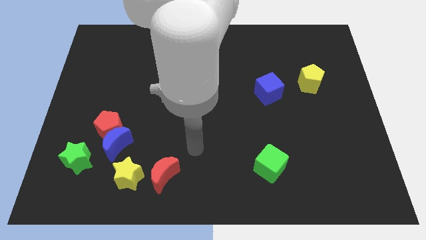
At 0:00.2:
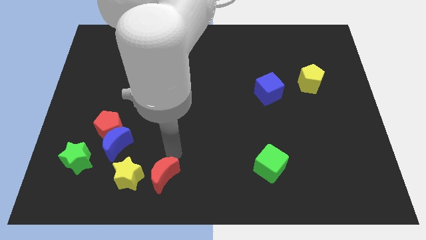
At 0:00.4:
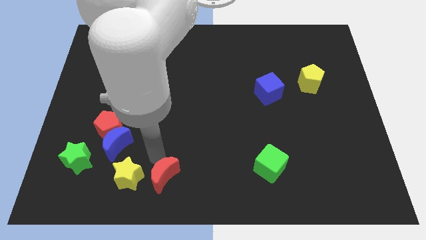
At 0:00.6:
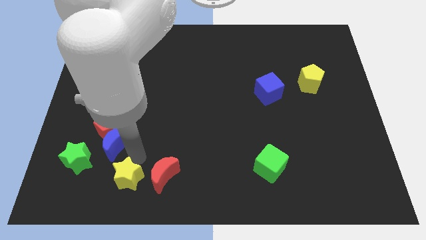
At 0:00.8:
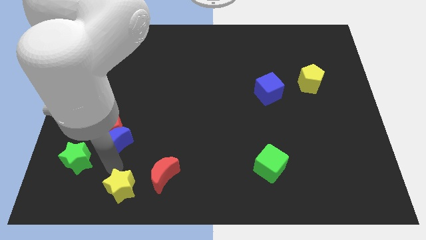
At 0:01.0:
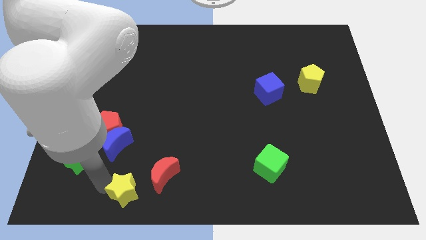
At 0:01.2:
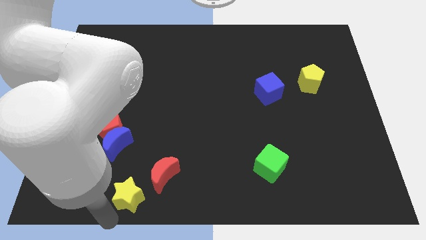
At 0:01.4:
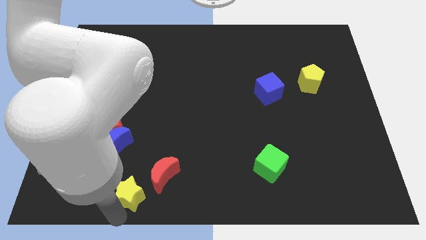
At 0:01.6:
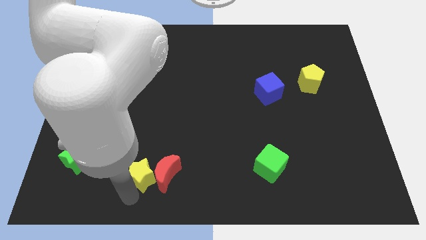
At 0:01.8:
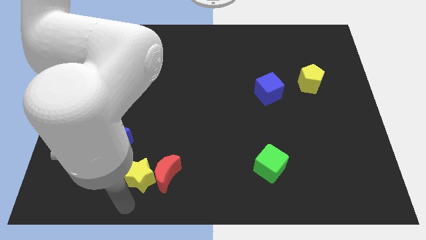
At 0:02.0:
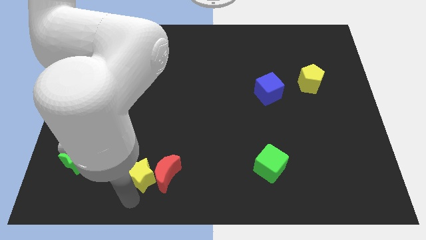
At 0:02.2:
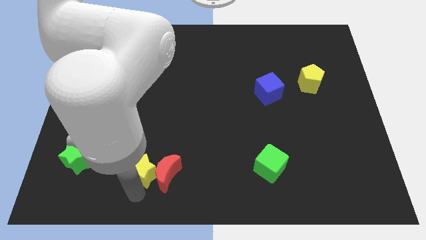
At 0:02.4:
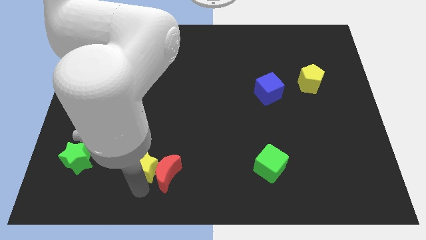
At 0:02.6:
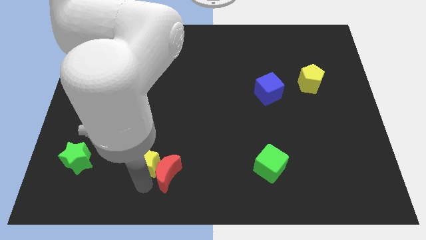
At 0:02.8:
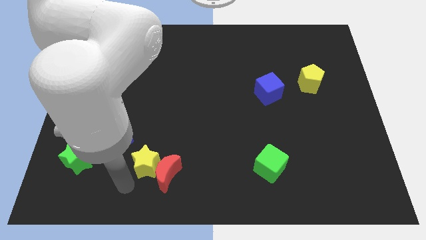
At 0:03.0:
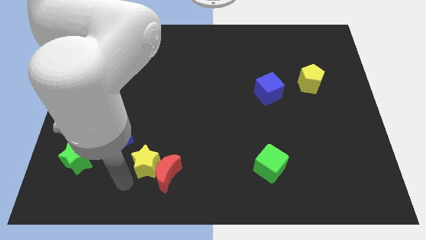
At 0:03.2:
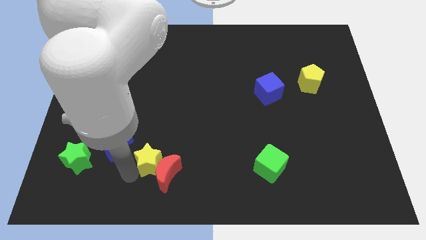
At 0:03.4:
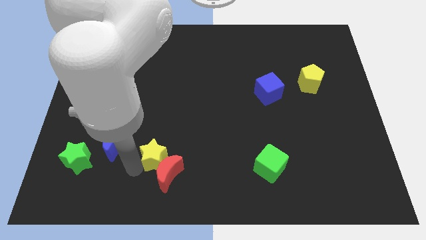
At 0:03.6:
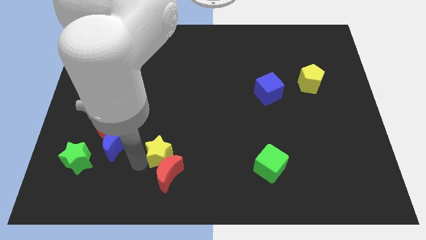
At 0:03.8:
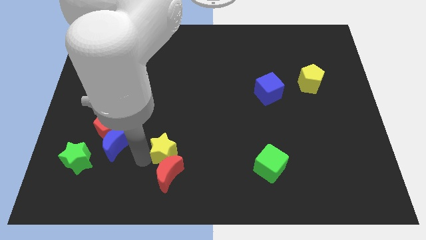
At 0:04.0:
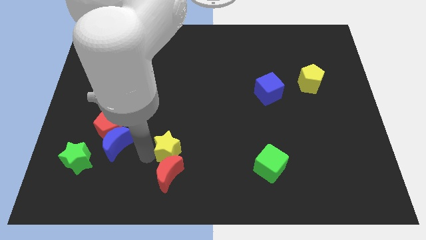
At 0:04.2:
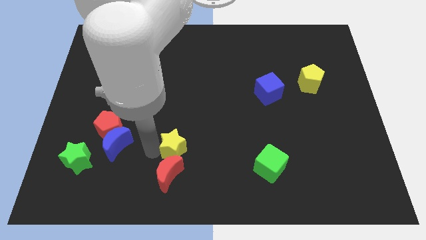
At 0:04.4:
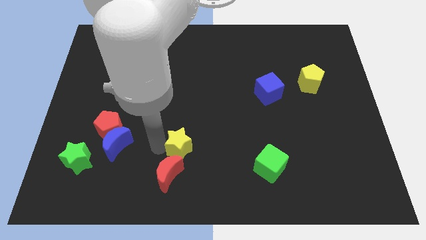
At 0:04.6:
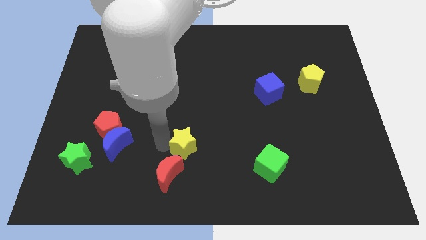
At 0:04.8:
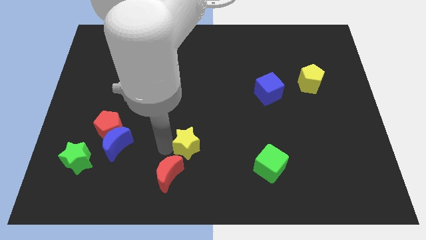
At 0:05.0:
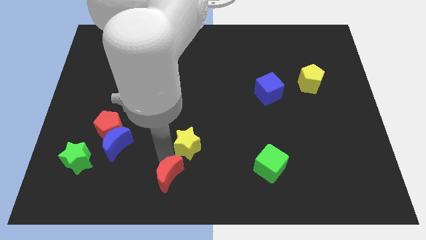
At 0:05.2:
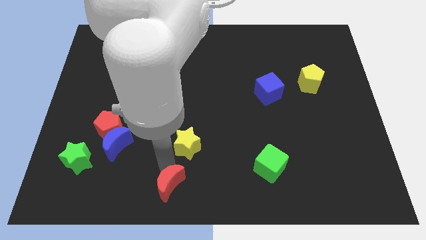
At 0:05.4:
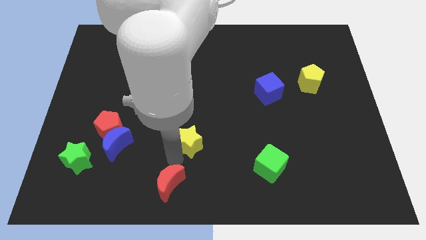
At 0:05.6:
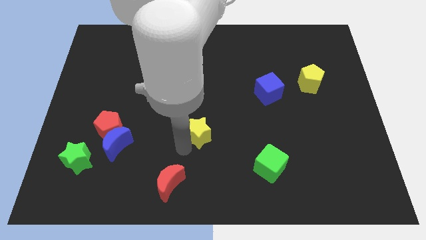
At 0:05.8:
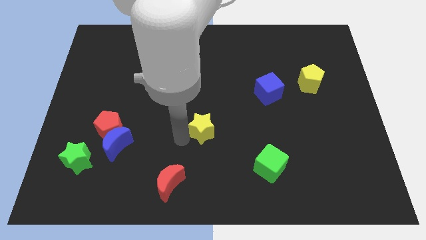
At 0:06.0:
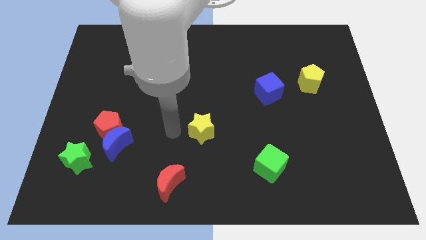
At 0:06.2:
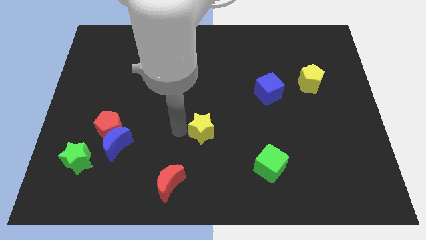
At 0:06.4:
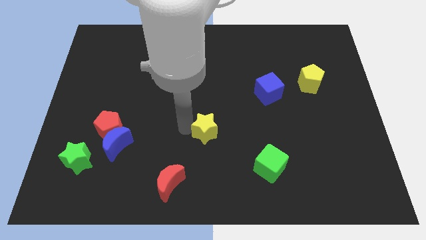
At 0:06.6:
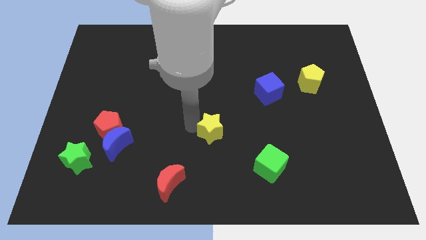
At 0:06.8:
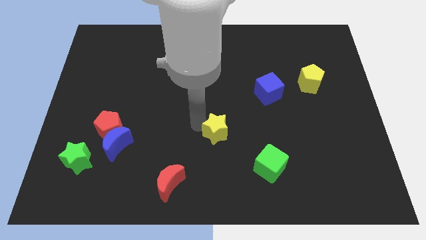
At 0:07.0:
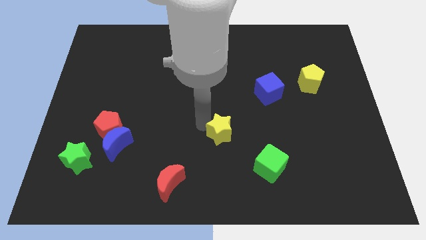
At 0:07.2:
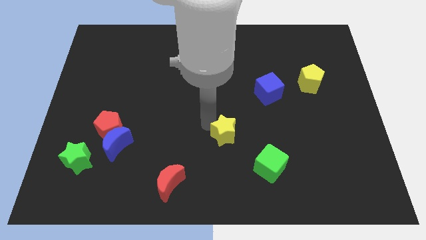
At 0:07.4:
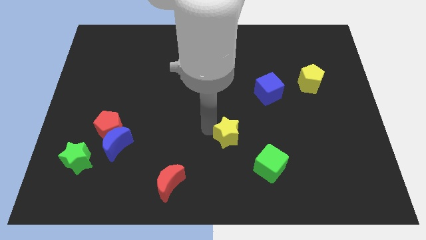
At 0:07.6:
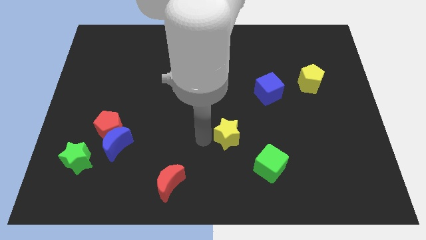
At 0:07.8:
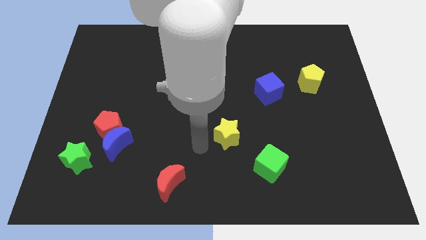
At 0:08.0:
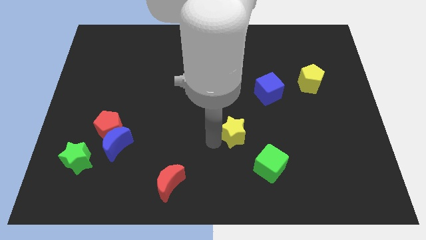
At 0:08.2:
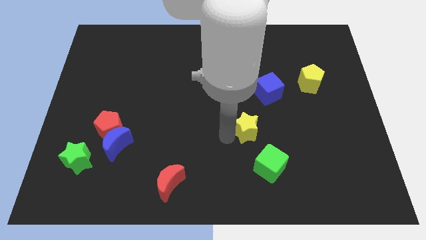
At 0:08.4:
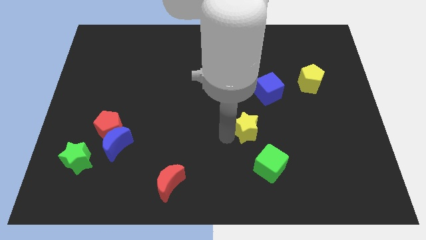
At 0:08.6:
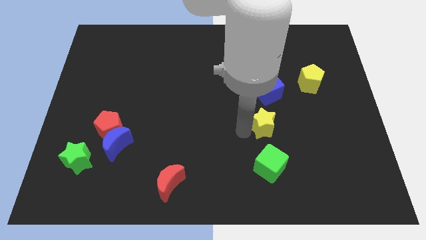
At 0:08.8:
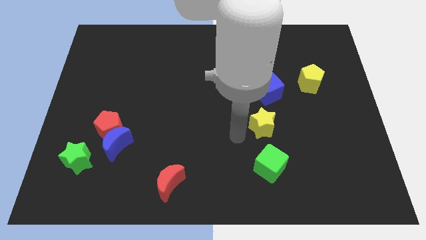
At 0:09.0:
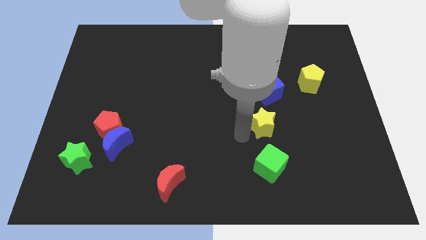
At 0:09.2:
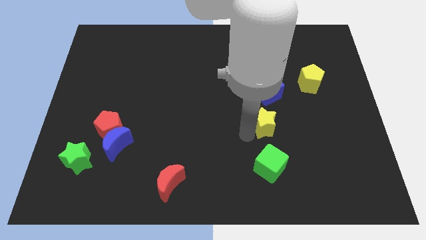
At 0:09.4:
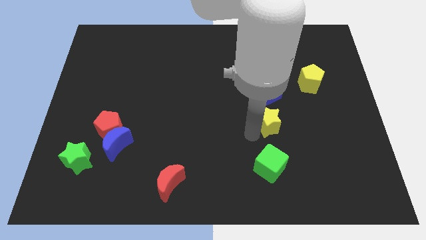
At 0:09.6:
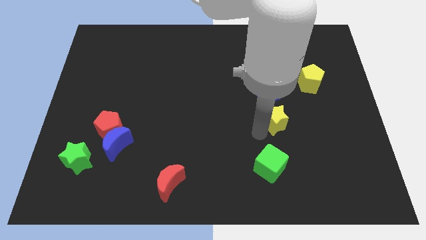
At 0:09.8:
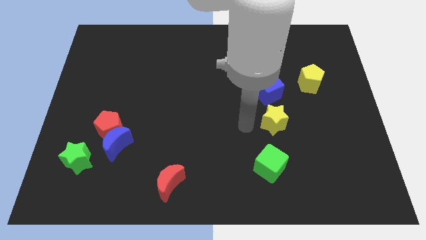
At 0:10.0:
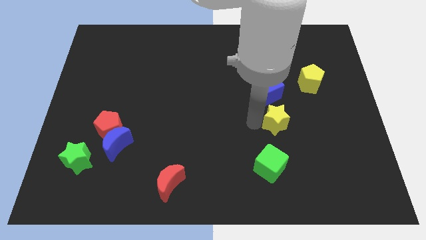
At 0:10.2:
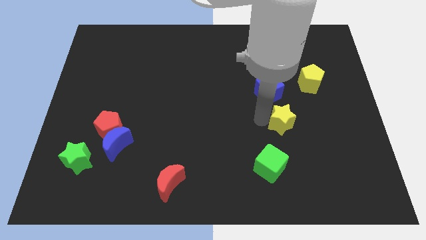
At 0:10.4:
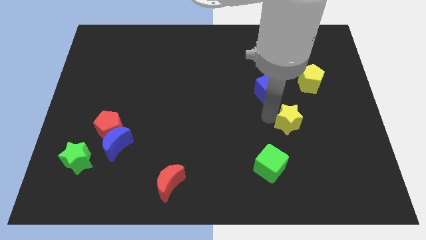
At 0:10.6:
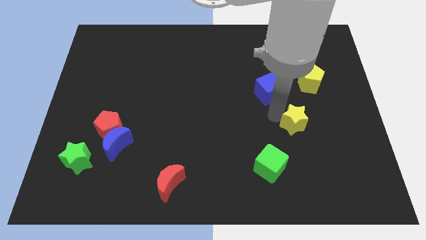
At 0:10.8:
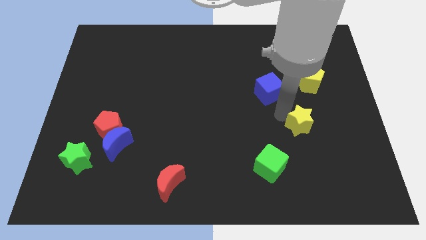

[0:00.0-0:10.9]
put the yellow star below the yellow pentagon

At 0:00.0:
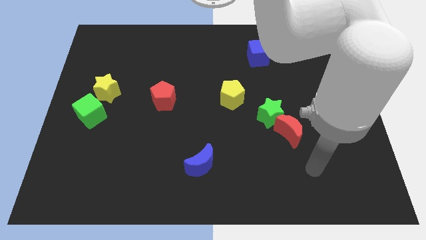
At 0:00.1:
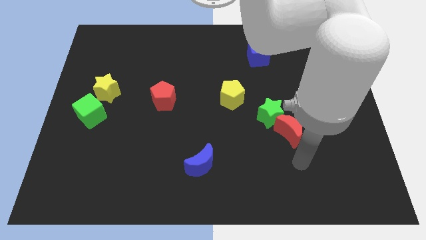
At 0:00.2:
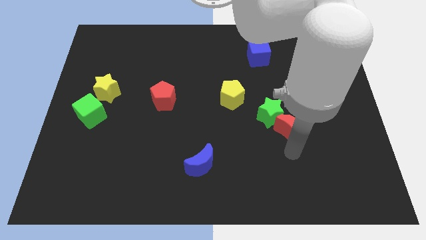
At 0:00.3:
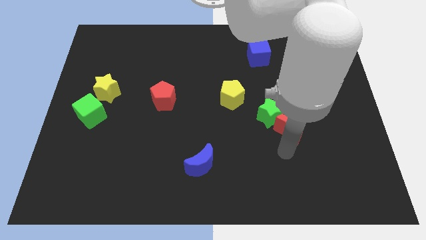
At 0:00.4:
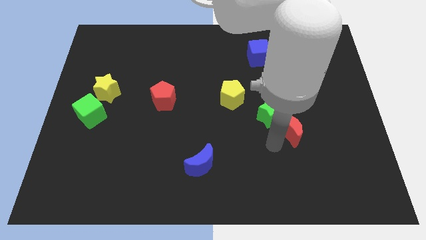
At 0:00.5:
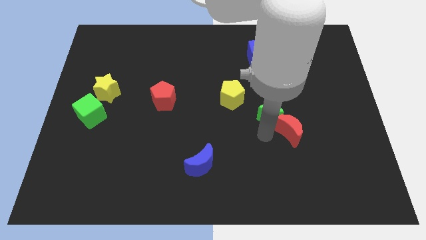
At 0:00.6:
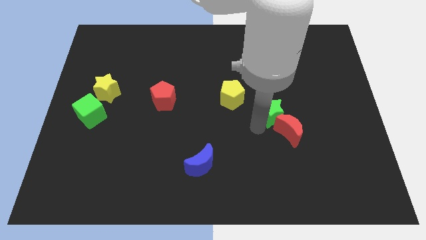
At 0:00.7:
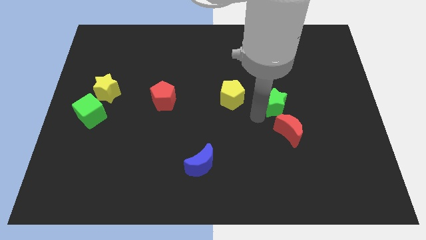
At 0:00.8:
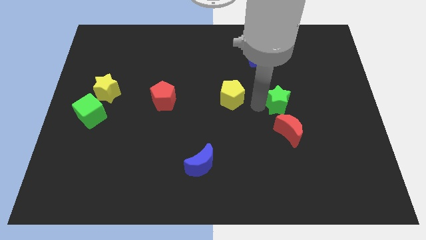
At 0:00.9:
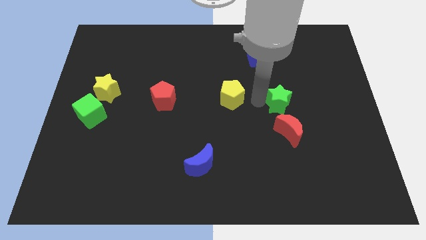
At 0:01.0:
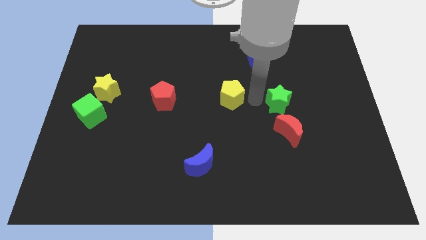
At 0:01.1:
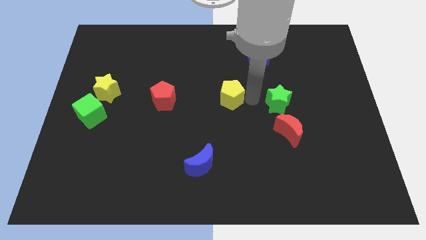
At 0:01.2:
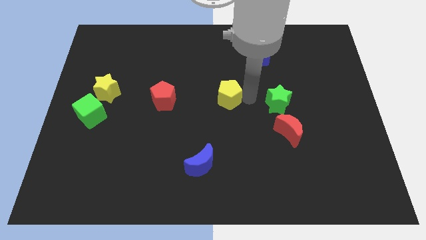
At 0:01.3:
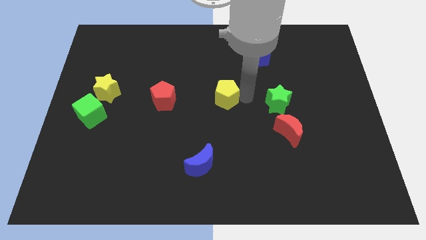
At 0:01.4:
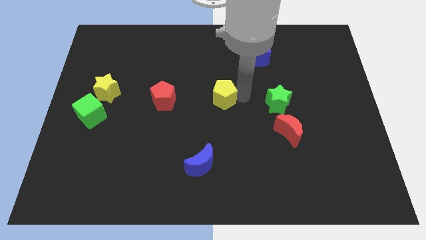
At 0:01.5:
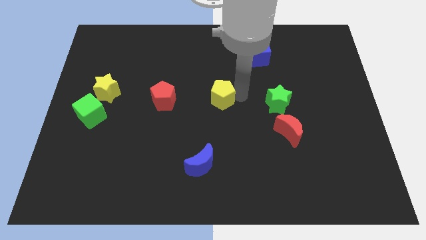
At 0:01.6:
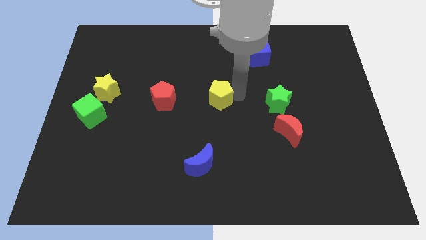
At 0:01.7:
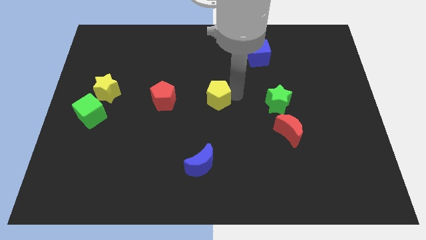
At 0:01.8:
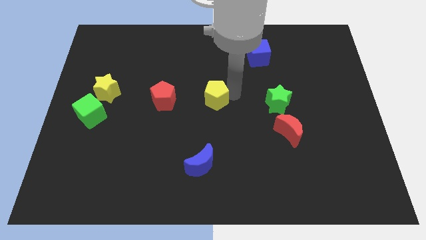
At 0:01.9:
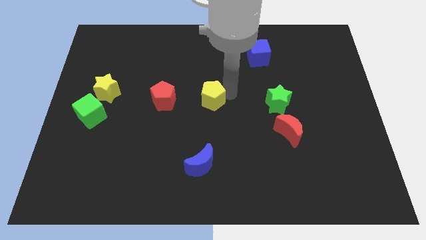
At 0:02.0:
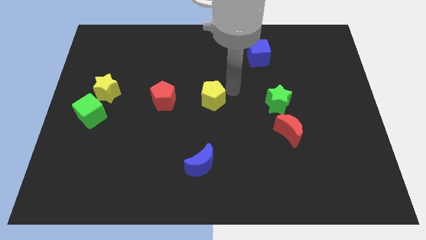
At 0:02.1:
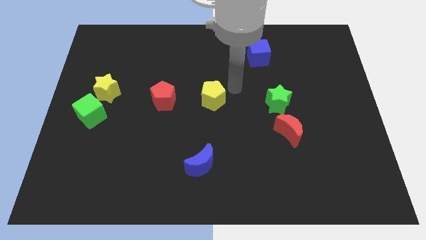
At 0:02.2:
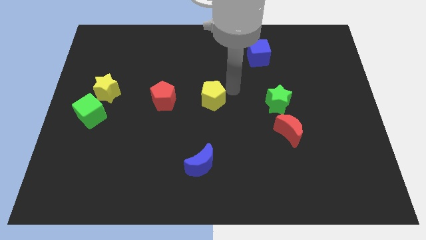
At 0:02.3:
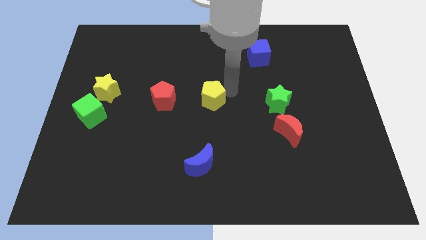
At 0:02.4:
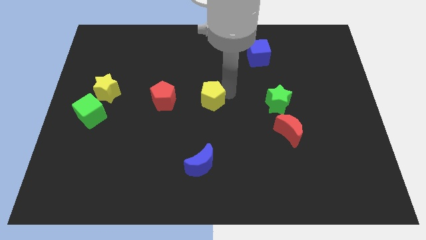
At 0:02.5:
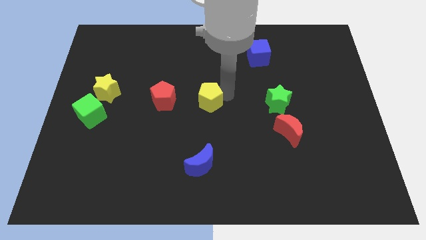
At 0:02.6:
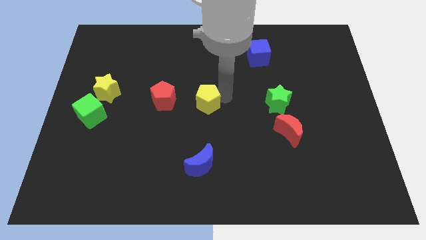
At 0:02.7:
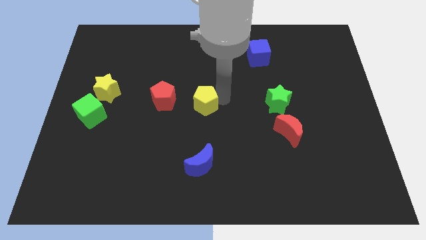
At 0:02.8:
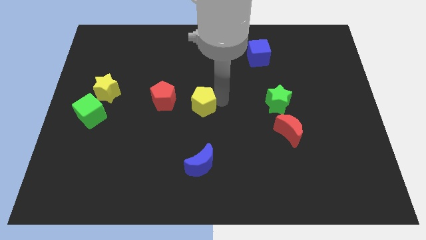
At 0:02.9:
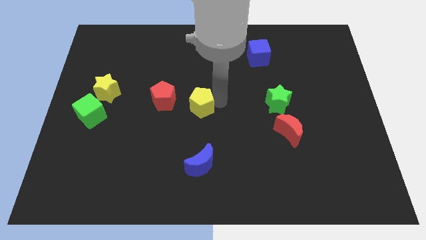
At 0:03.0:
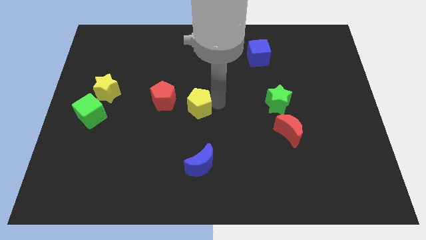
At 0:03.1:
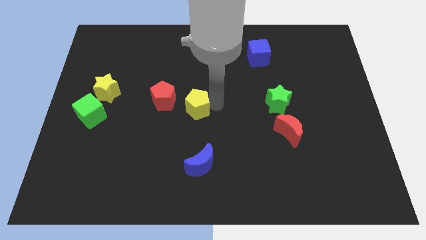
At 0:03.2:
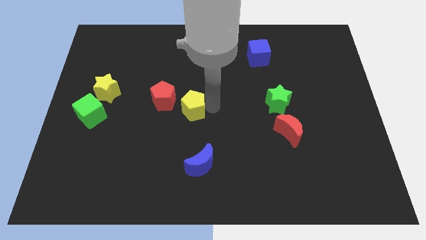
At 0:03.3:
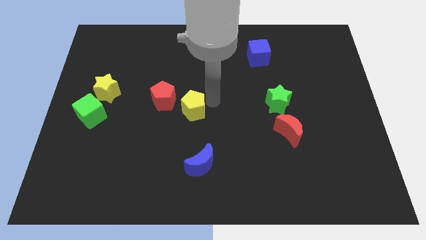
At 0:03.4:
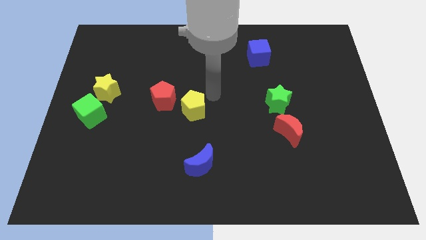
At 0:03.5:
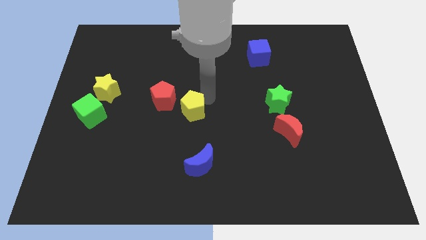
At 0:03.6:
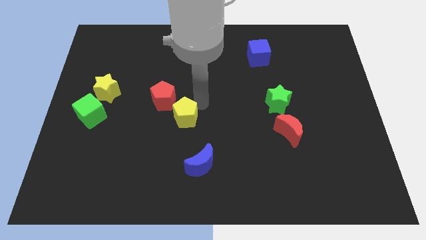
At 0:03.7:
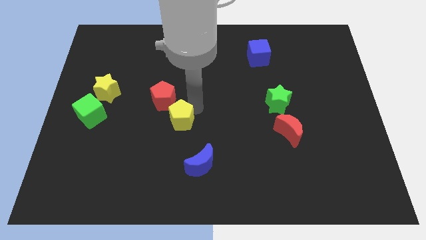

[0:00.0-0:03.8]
push the yellow pentagon to the bottom of the red pentagon
